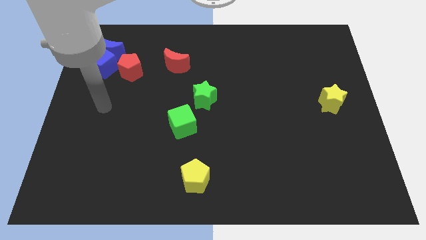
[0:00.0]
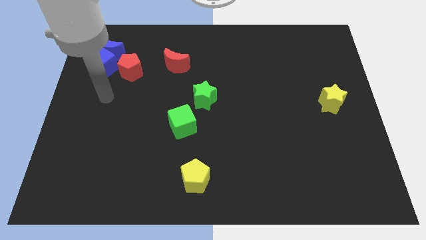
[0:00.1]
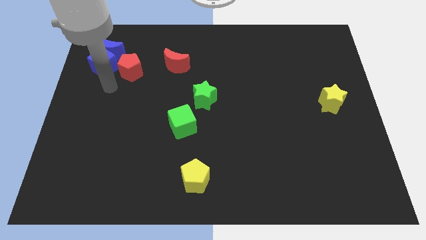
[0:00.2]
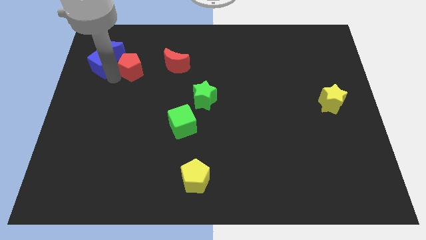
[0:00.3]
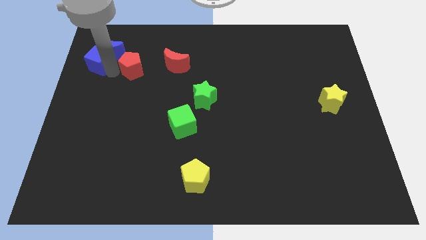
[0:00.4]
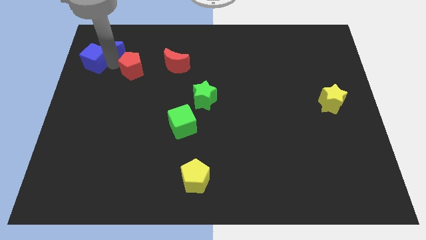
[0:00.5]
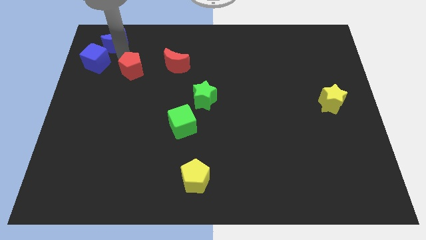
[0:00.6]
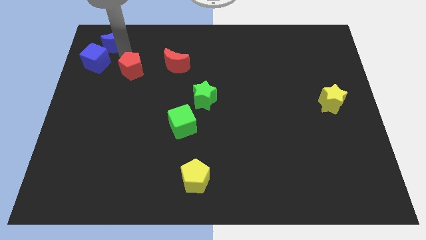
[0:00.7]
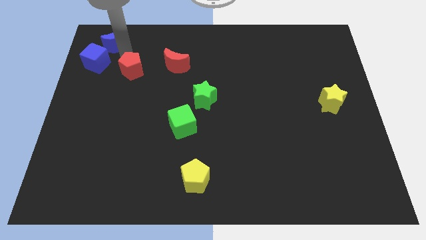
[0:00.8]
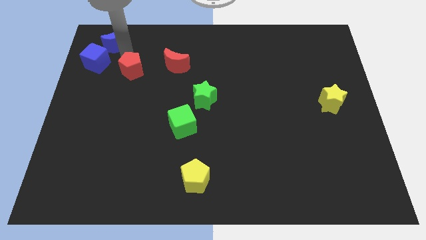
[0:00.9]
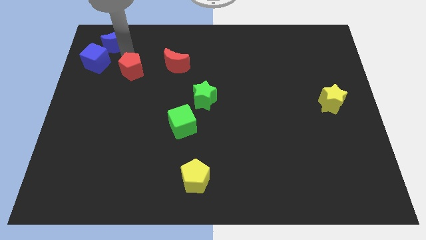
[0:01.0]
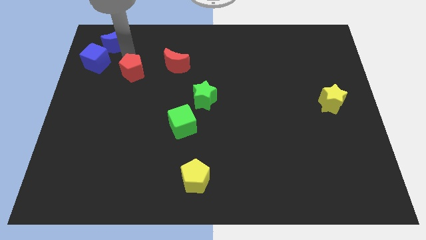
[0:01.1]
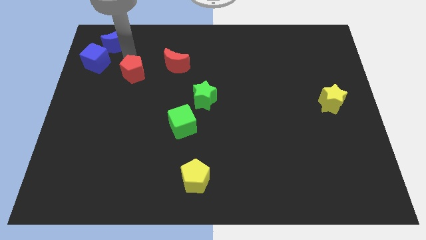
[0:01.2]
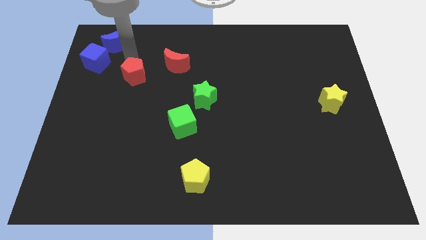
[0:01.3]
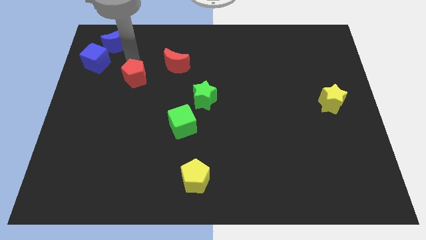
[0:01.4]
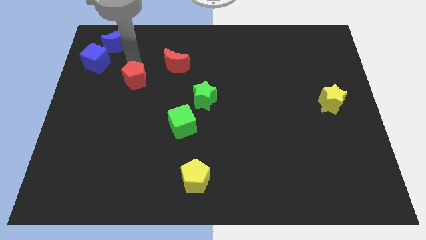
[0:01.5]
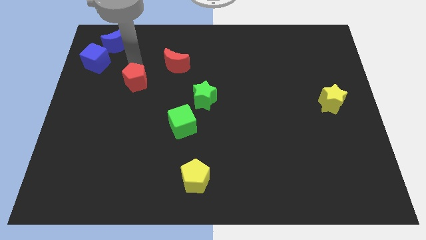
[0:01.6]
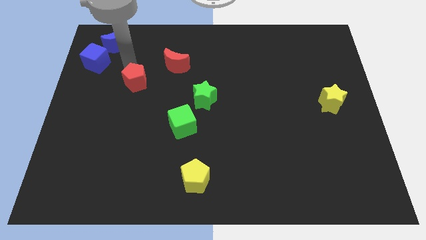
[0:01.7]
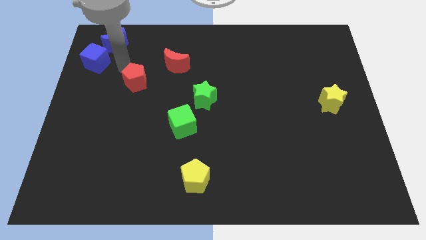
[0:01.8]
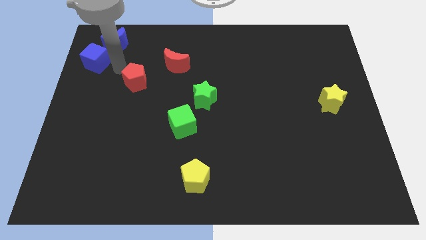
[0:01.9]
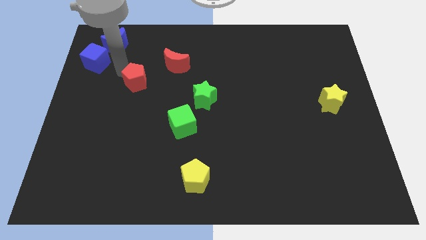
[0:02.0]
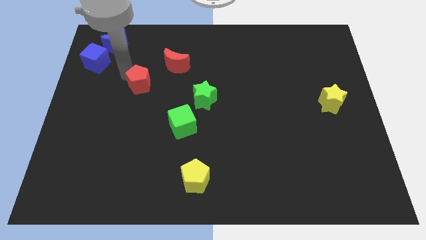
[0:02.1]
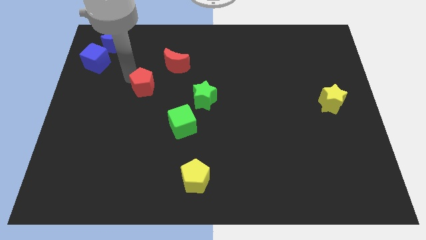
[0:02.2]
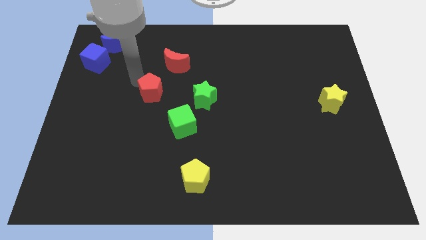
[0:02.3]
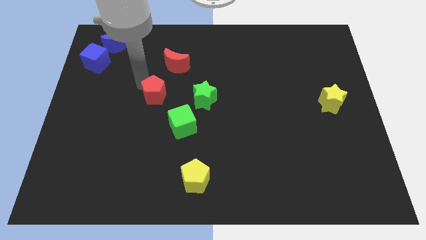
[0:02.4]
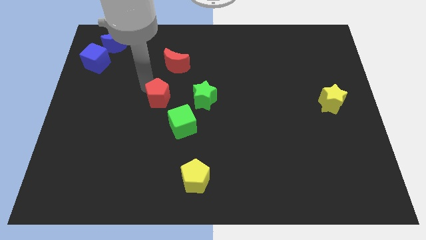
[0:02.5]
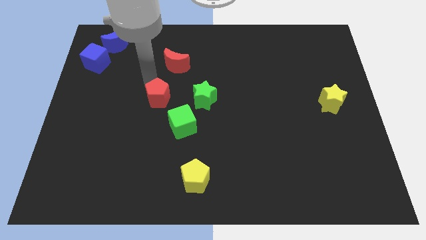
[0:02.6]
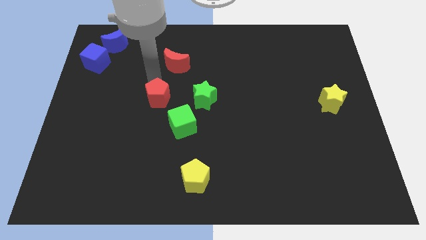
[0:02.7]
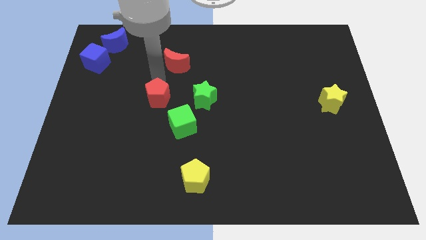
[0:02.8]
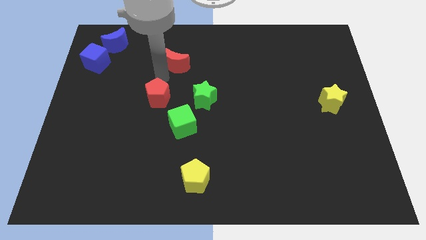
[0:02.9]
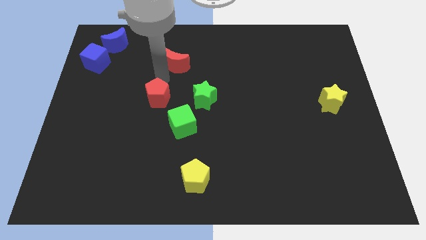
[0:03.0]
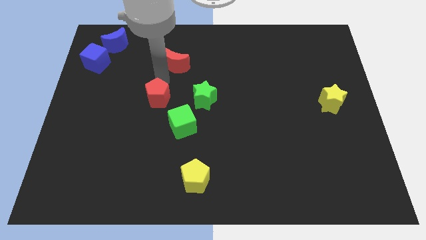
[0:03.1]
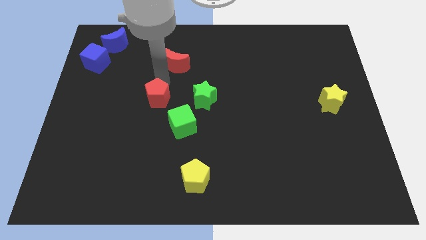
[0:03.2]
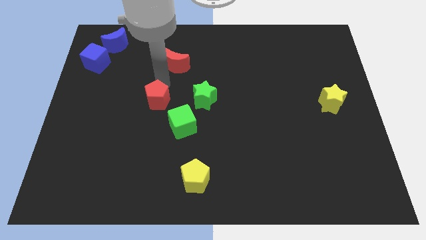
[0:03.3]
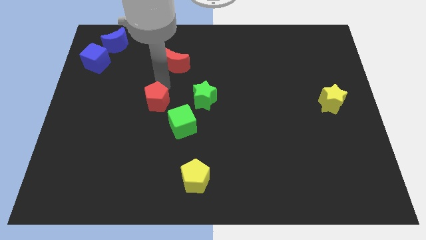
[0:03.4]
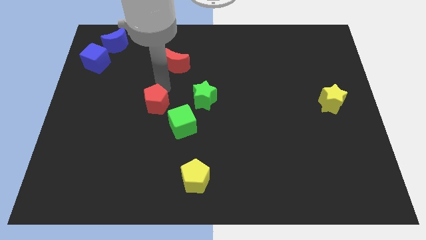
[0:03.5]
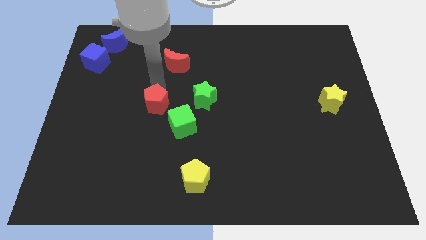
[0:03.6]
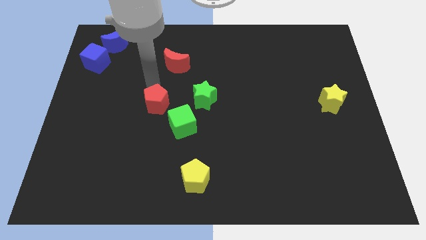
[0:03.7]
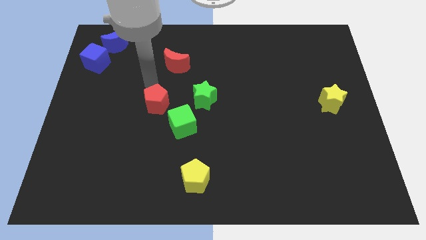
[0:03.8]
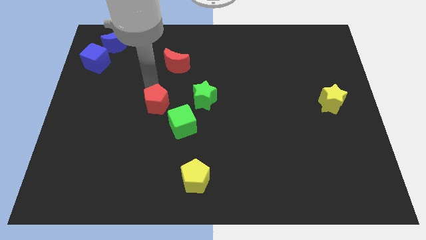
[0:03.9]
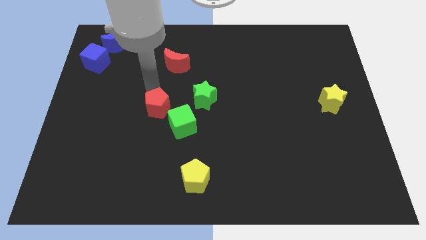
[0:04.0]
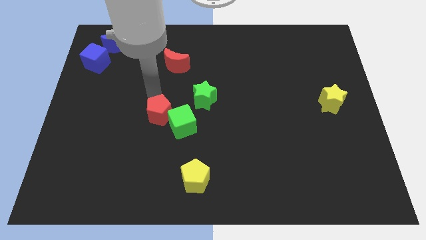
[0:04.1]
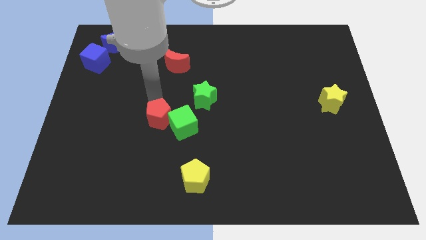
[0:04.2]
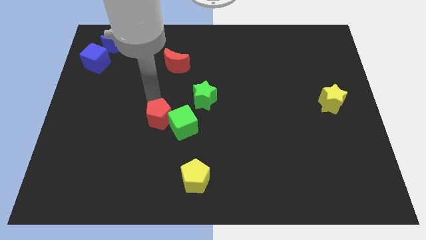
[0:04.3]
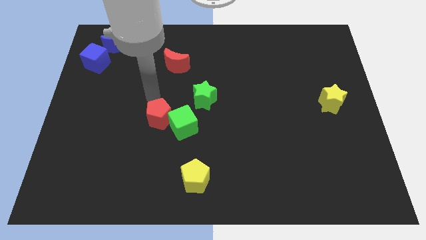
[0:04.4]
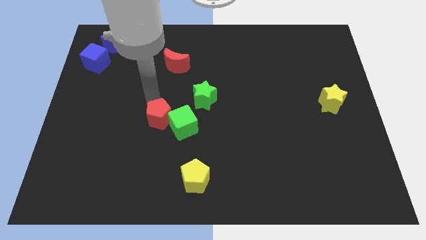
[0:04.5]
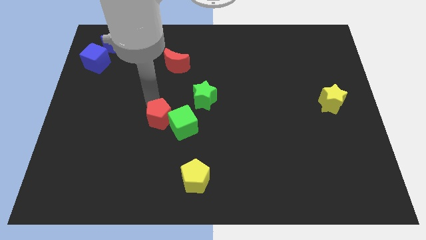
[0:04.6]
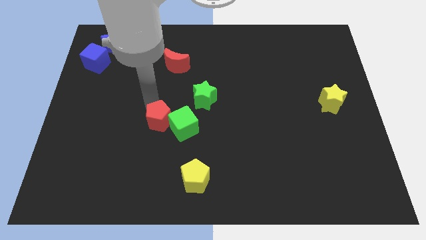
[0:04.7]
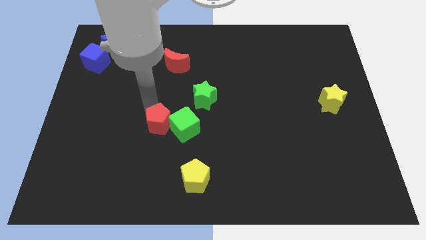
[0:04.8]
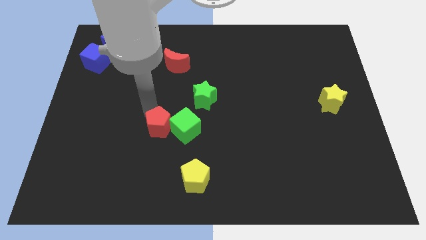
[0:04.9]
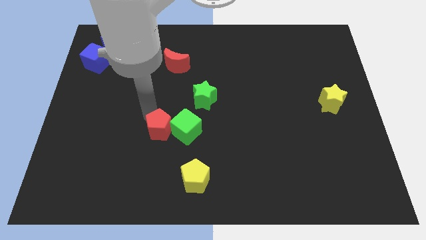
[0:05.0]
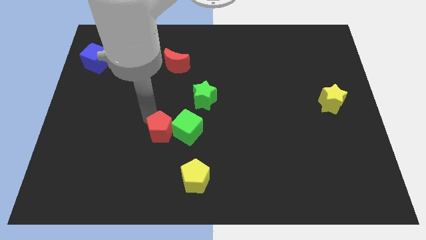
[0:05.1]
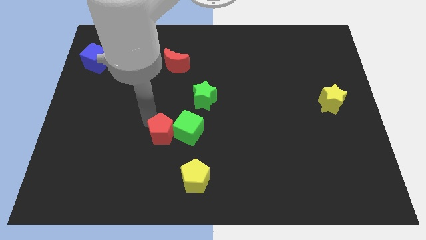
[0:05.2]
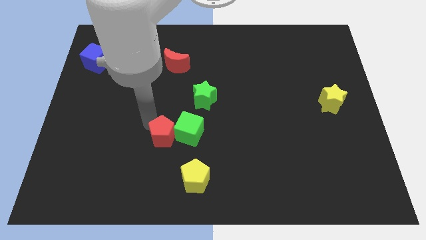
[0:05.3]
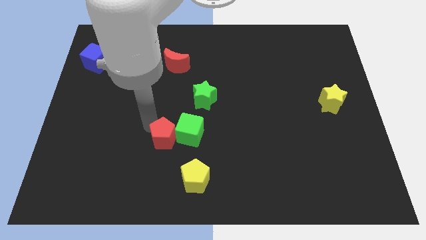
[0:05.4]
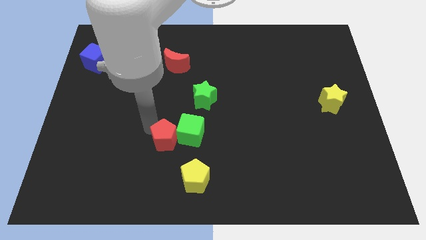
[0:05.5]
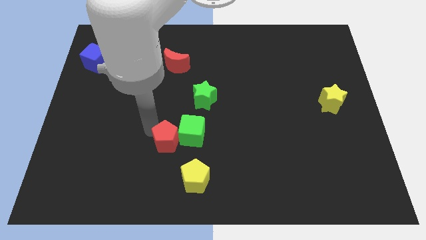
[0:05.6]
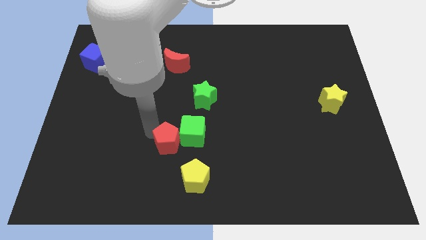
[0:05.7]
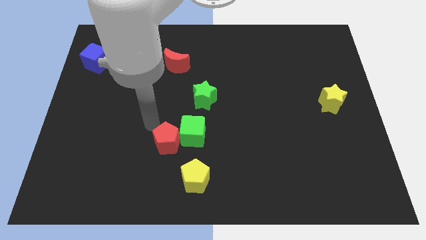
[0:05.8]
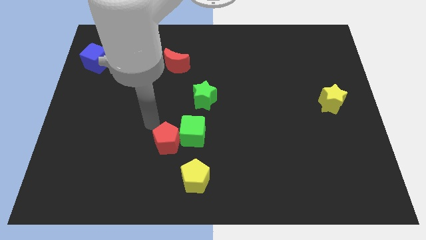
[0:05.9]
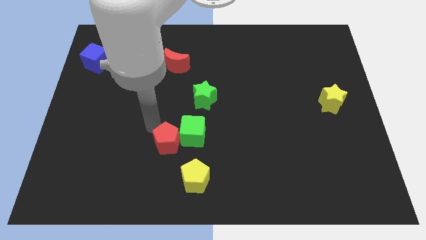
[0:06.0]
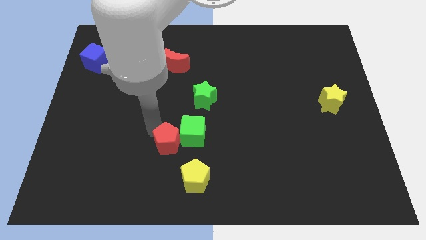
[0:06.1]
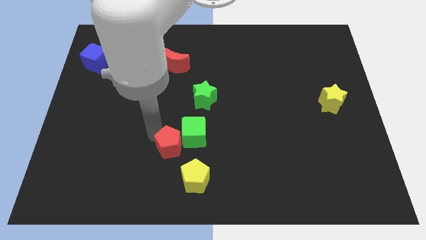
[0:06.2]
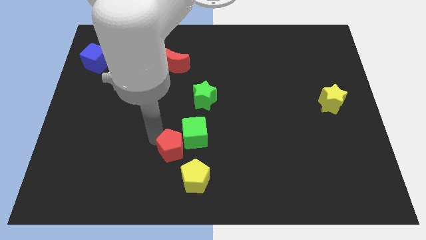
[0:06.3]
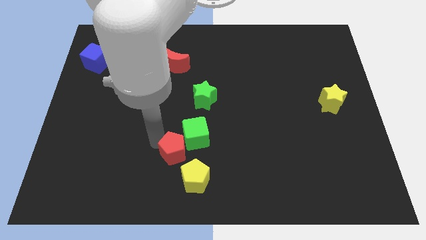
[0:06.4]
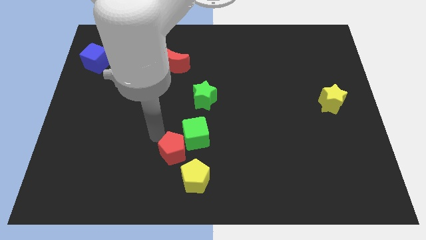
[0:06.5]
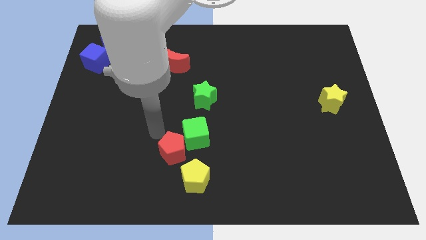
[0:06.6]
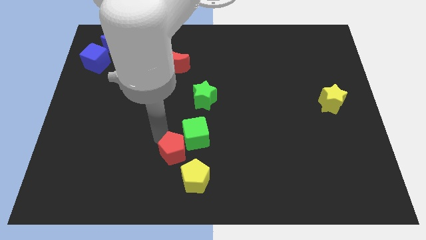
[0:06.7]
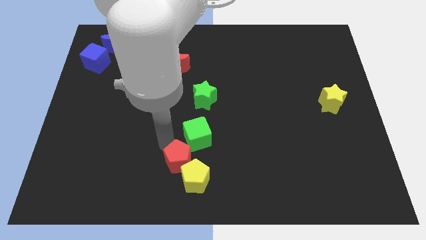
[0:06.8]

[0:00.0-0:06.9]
move the red pentagon towards the yellow pentagon
